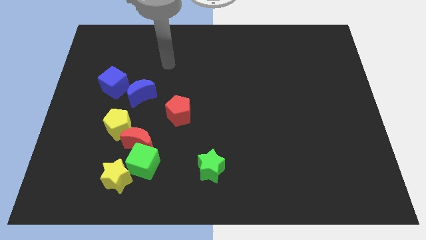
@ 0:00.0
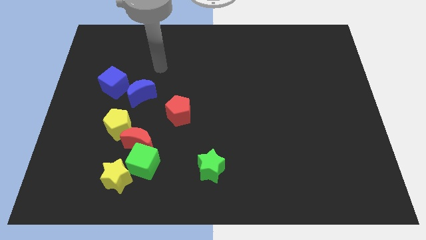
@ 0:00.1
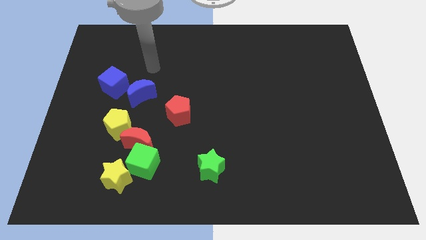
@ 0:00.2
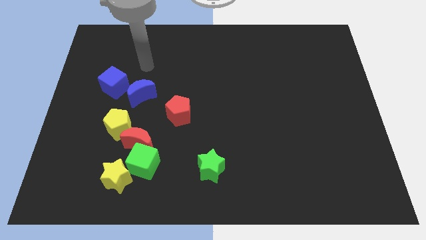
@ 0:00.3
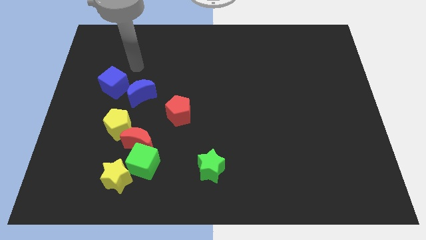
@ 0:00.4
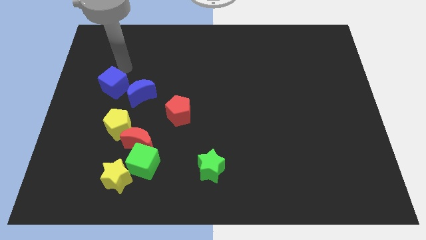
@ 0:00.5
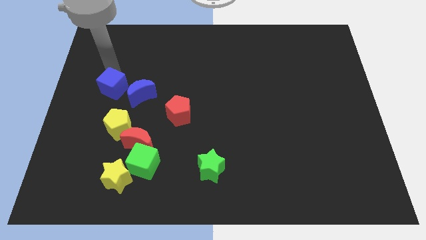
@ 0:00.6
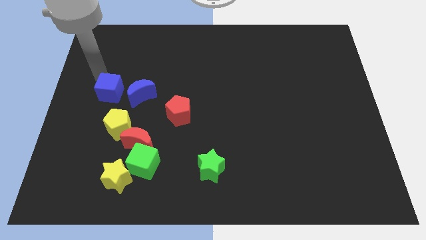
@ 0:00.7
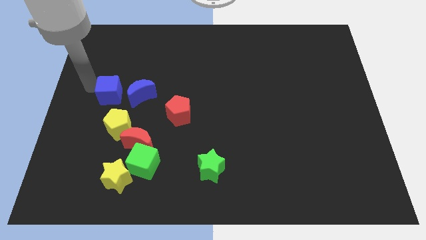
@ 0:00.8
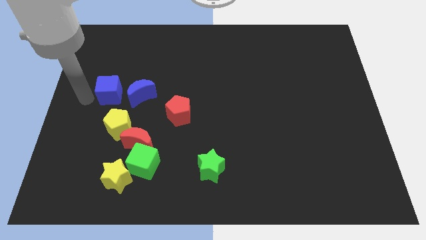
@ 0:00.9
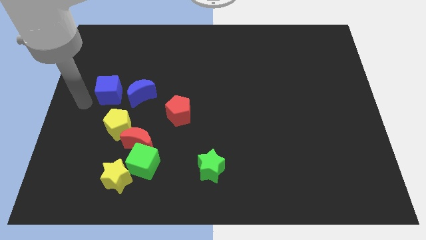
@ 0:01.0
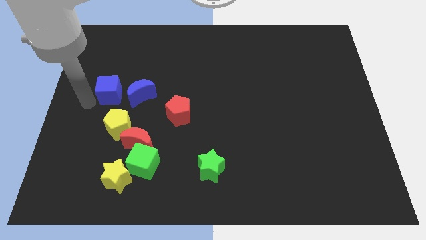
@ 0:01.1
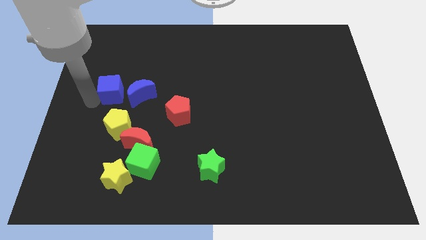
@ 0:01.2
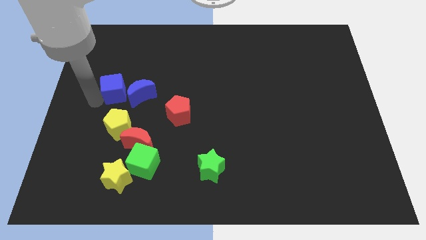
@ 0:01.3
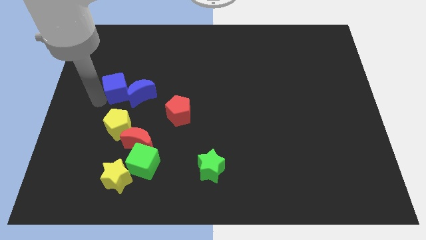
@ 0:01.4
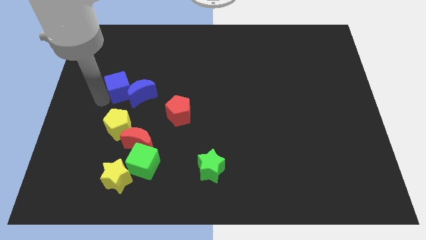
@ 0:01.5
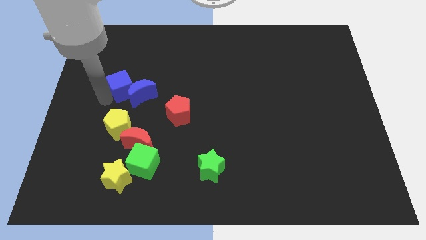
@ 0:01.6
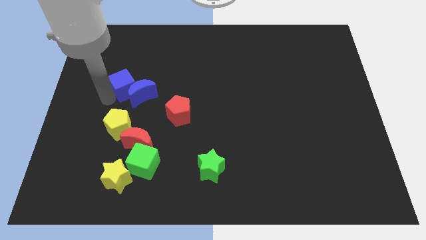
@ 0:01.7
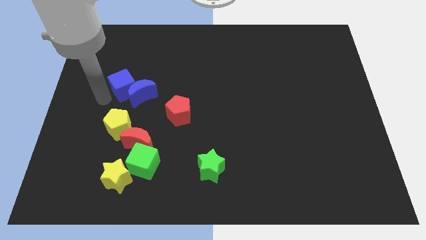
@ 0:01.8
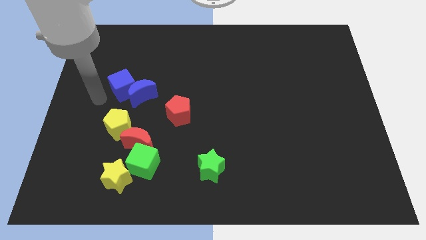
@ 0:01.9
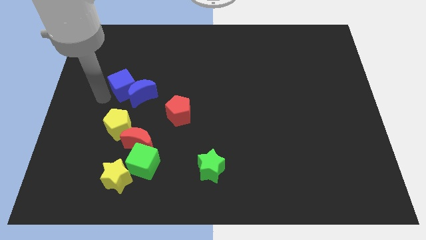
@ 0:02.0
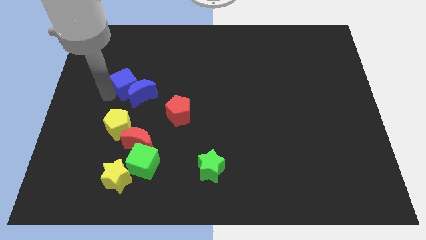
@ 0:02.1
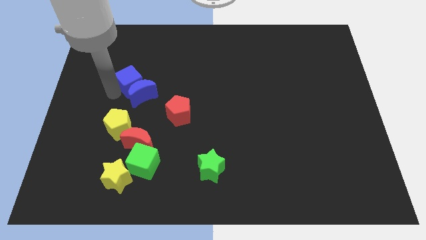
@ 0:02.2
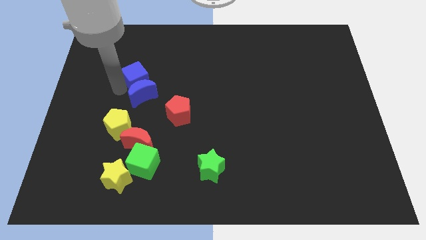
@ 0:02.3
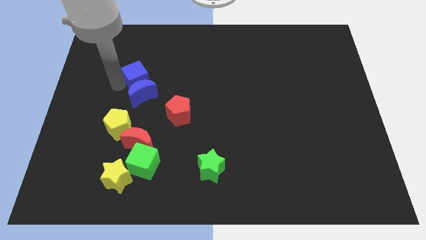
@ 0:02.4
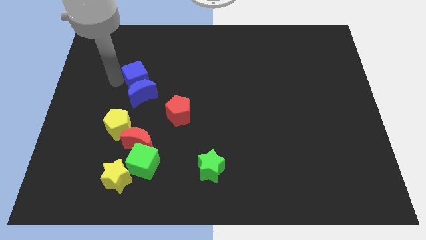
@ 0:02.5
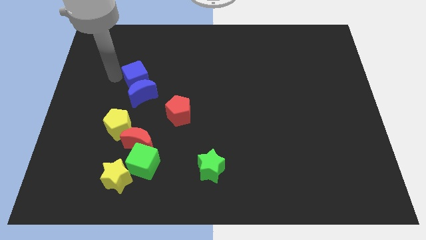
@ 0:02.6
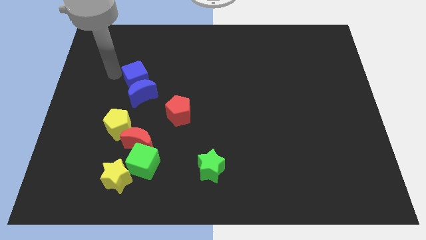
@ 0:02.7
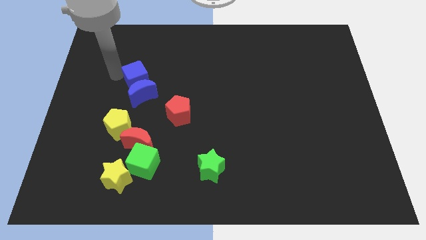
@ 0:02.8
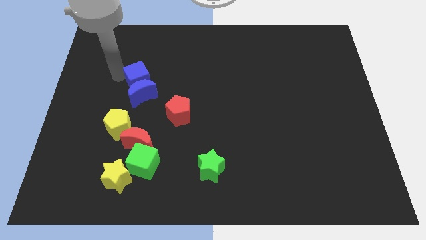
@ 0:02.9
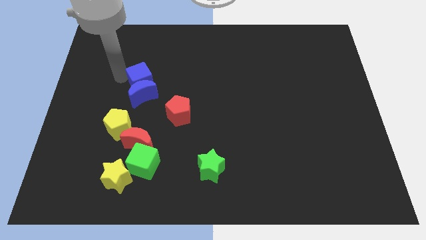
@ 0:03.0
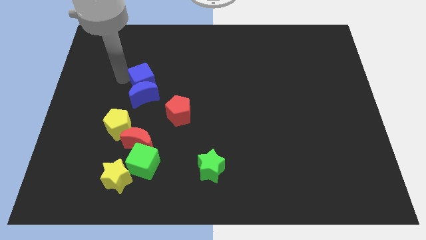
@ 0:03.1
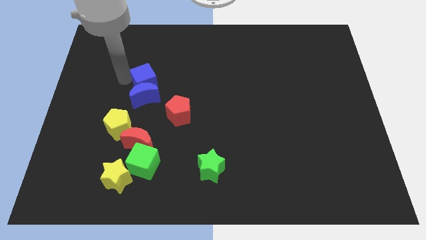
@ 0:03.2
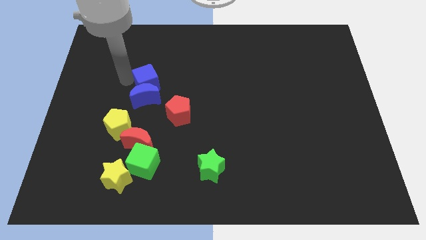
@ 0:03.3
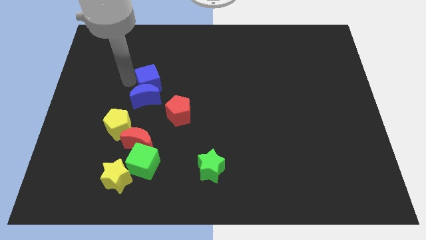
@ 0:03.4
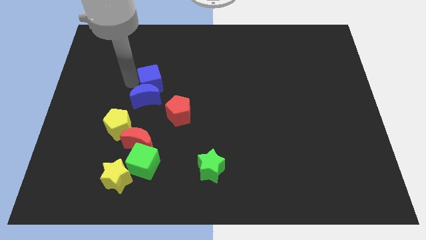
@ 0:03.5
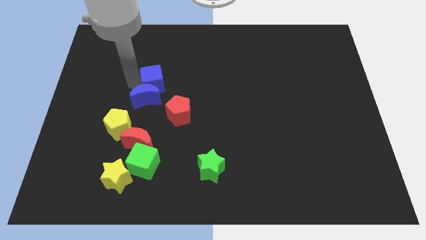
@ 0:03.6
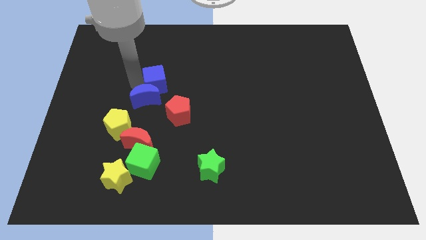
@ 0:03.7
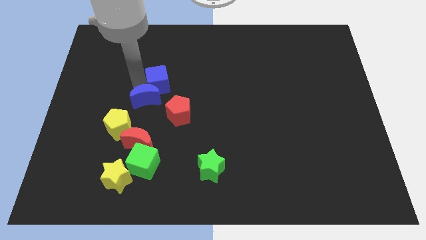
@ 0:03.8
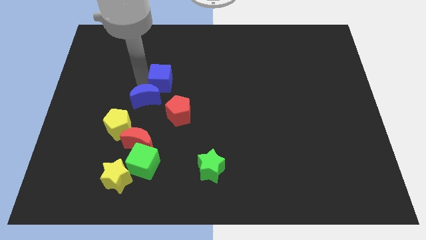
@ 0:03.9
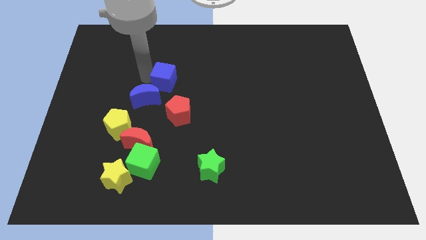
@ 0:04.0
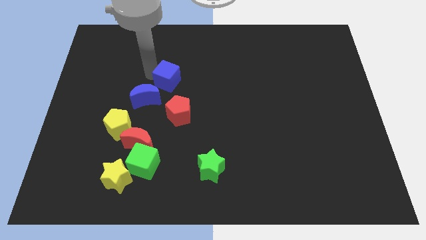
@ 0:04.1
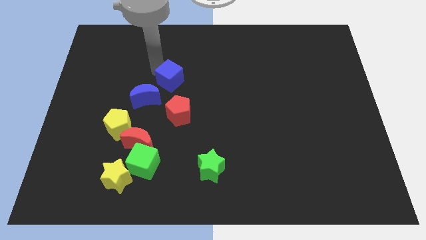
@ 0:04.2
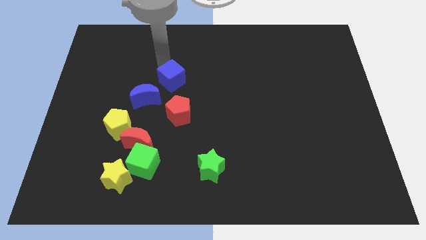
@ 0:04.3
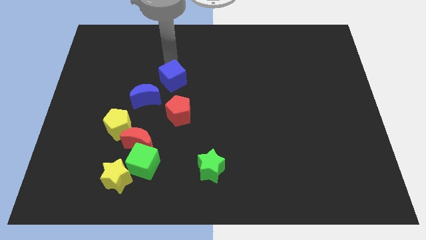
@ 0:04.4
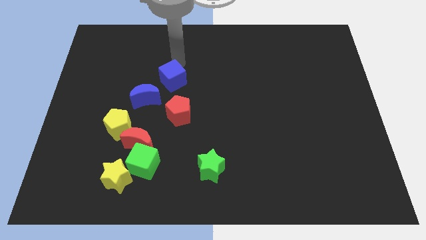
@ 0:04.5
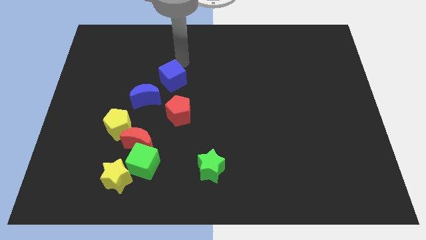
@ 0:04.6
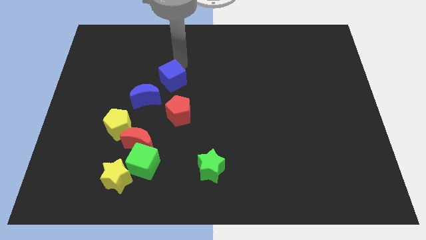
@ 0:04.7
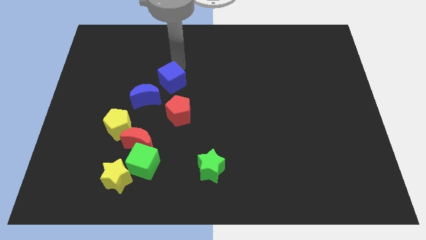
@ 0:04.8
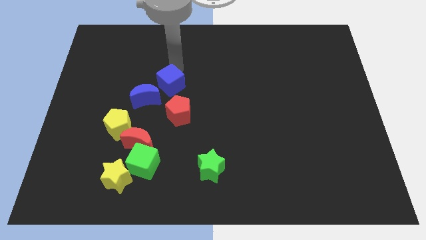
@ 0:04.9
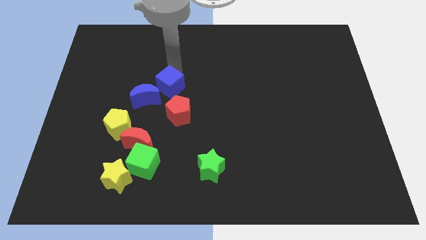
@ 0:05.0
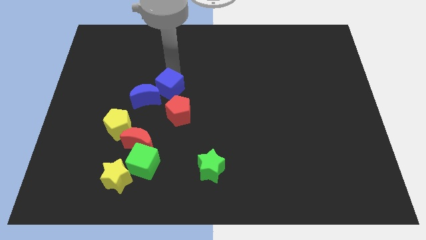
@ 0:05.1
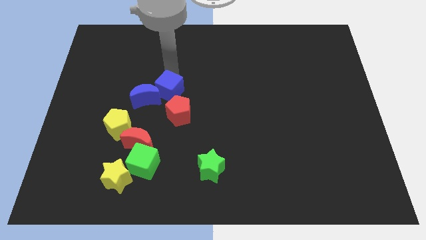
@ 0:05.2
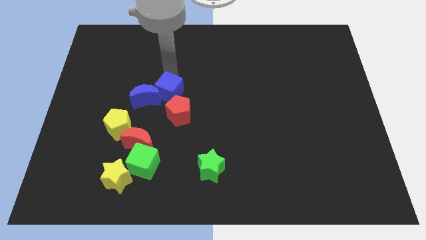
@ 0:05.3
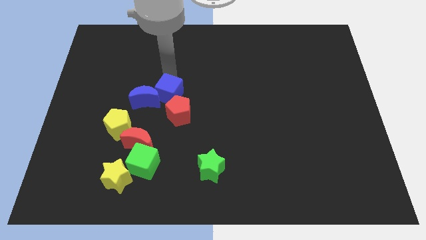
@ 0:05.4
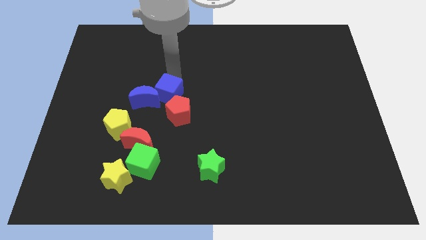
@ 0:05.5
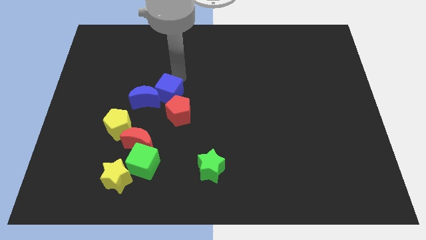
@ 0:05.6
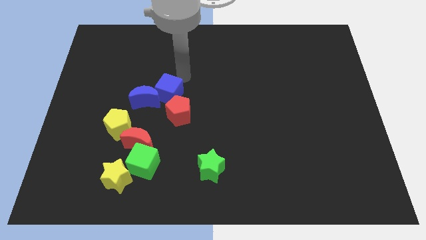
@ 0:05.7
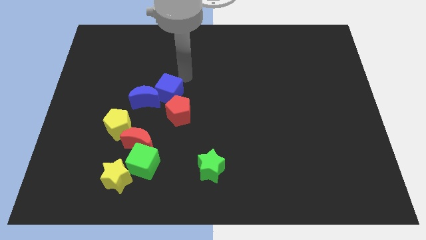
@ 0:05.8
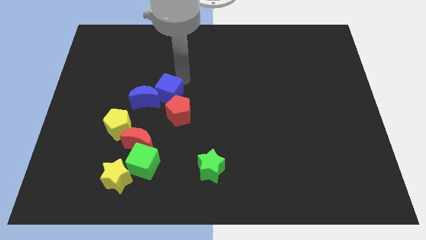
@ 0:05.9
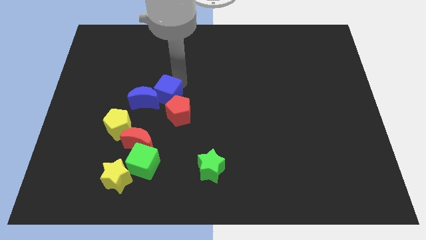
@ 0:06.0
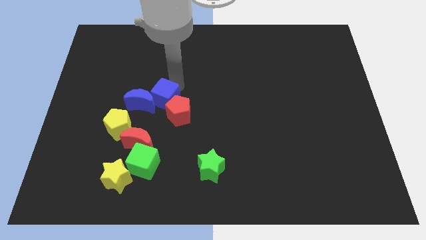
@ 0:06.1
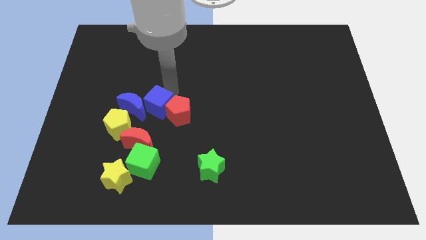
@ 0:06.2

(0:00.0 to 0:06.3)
move the blue cube to the top of the green cube

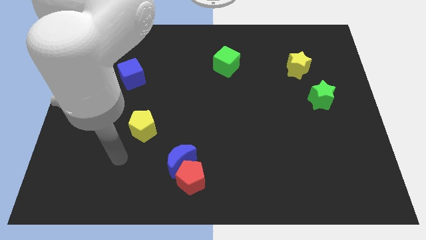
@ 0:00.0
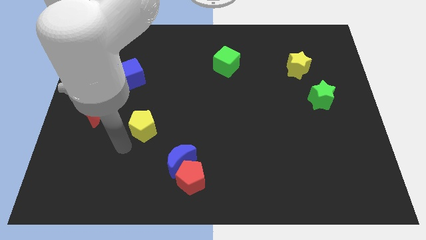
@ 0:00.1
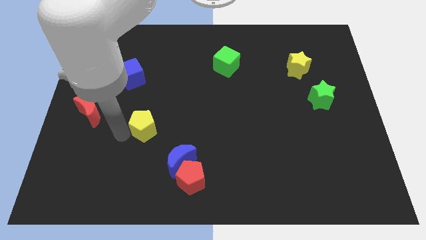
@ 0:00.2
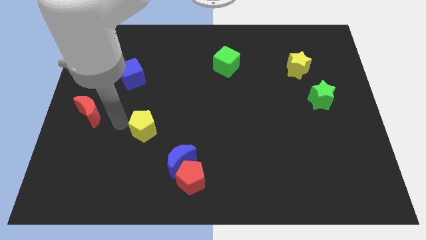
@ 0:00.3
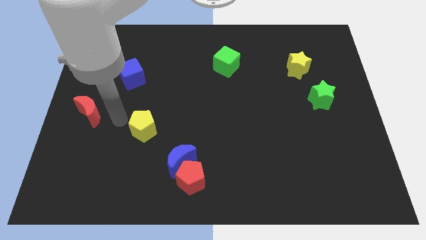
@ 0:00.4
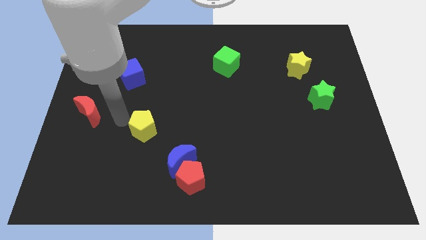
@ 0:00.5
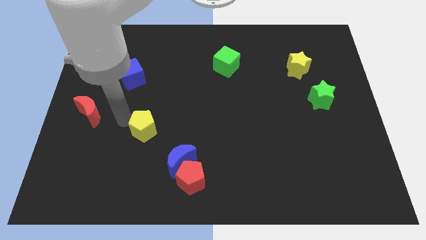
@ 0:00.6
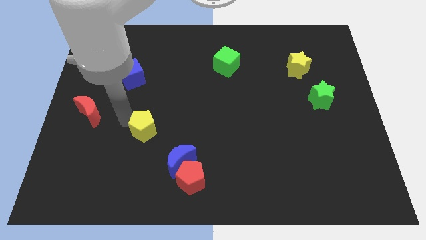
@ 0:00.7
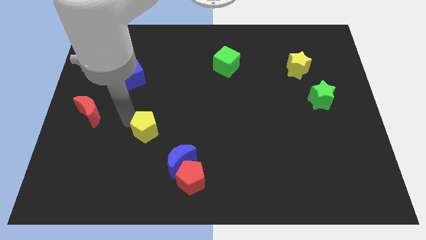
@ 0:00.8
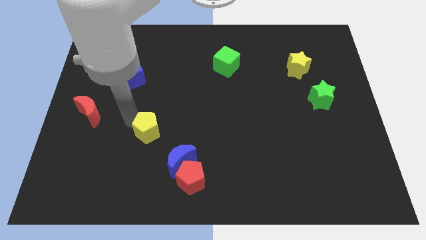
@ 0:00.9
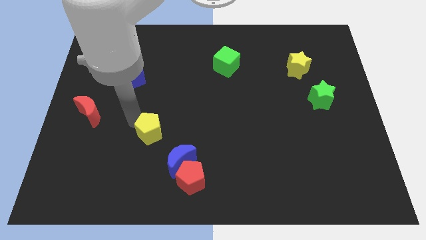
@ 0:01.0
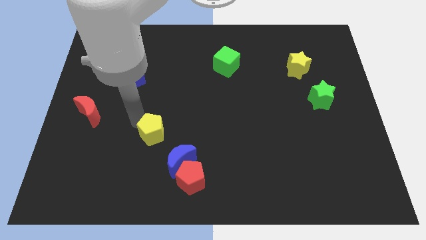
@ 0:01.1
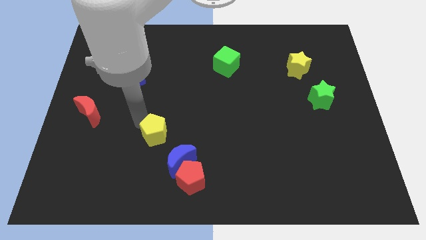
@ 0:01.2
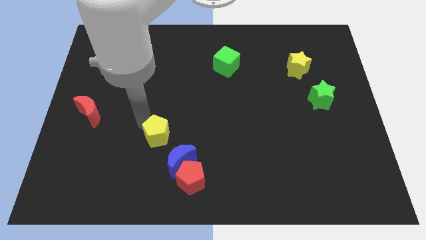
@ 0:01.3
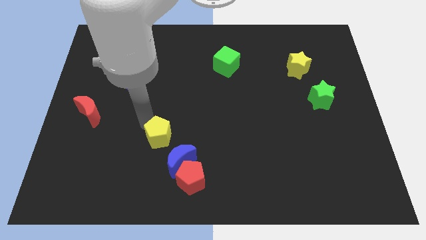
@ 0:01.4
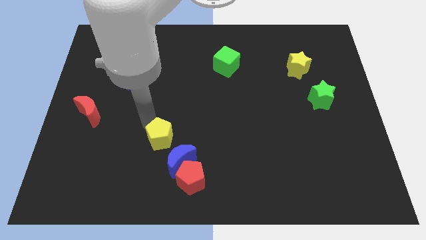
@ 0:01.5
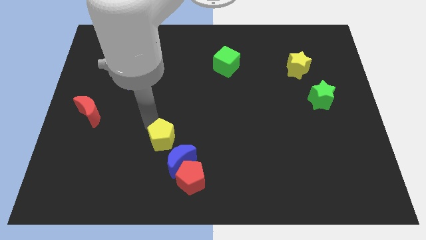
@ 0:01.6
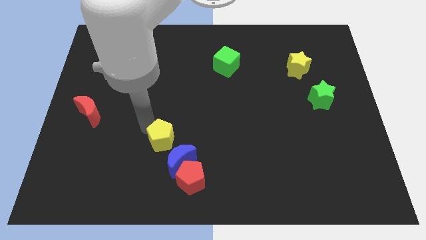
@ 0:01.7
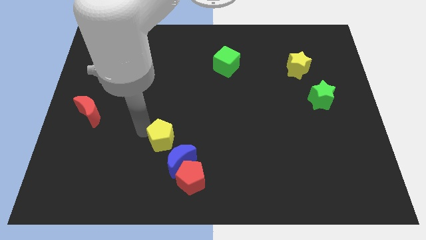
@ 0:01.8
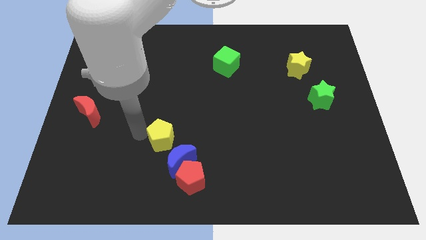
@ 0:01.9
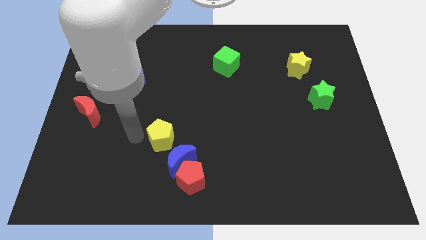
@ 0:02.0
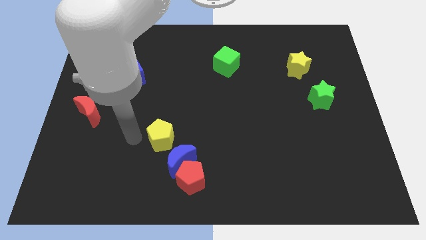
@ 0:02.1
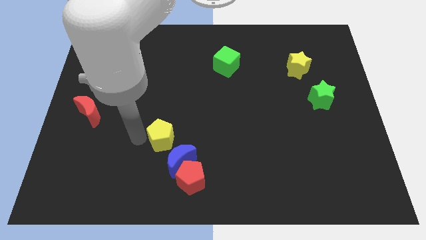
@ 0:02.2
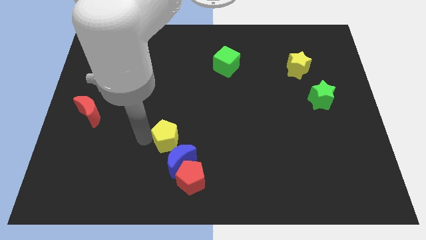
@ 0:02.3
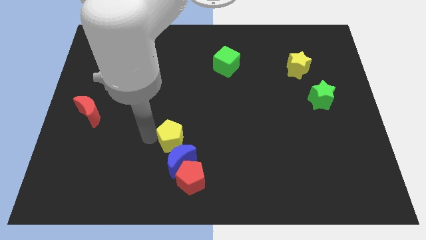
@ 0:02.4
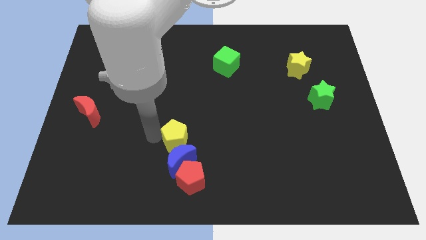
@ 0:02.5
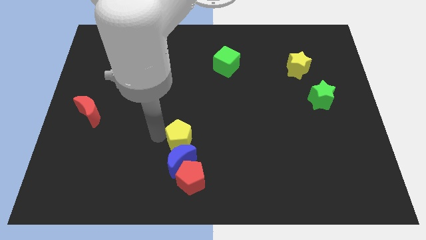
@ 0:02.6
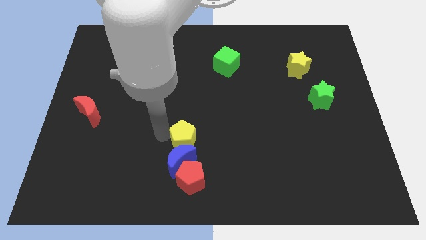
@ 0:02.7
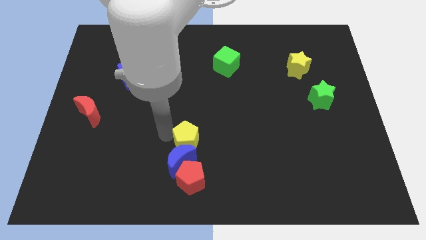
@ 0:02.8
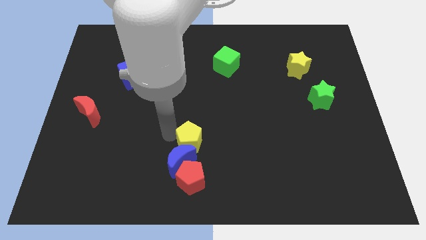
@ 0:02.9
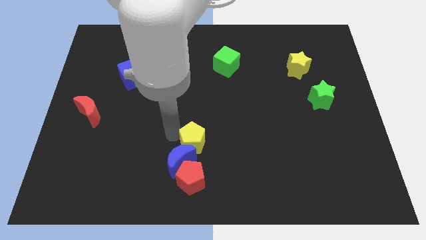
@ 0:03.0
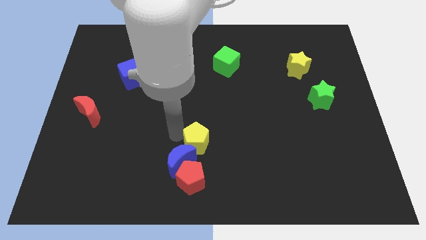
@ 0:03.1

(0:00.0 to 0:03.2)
slide the yellow pentagon right of the blue moon
